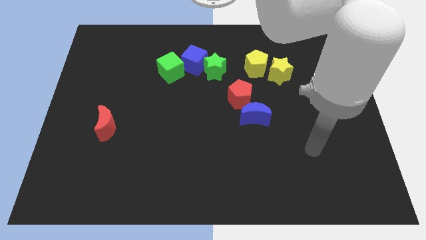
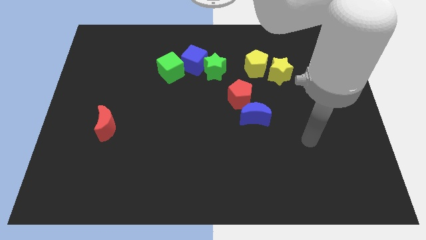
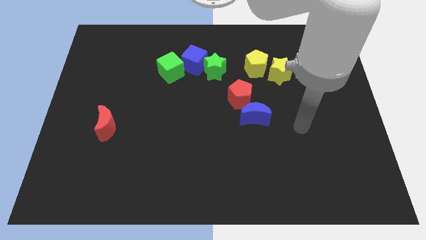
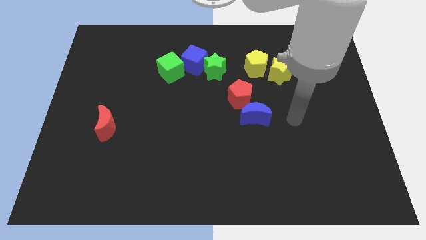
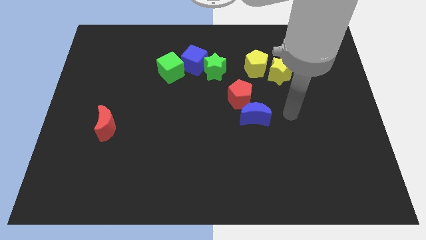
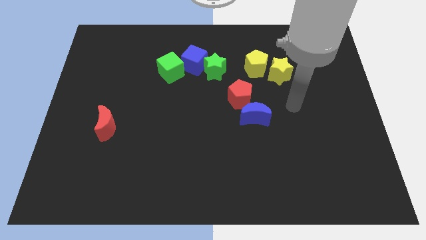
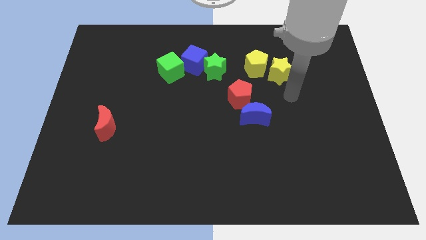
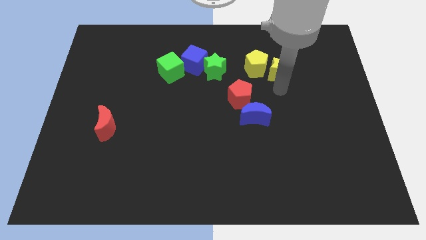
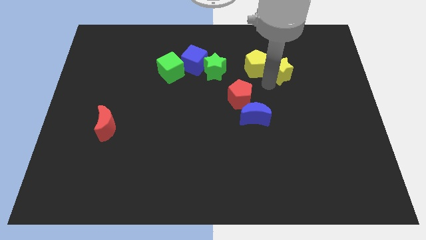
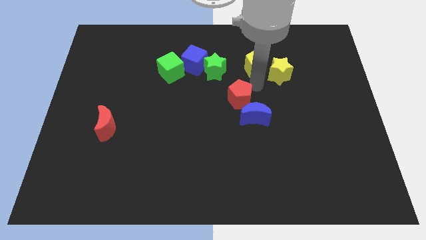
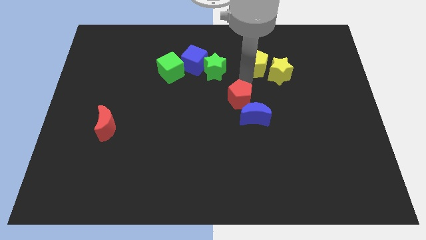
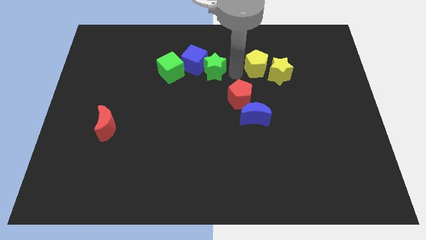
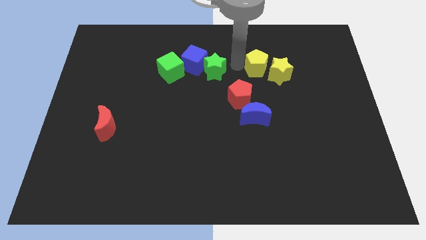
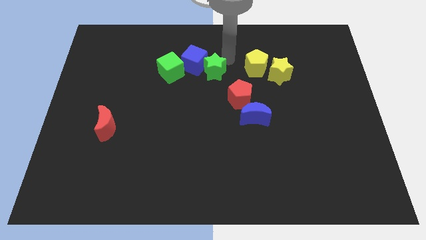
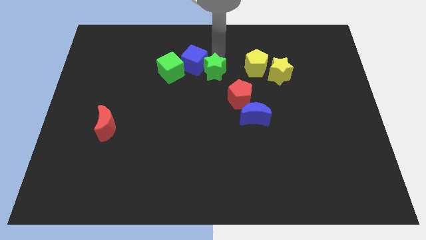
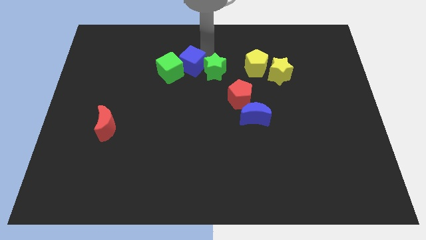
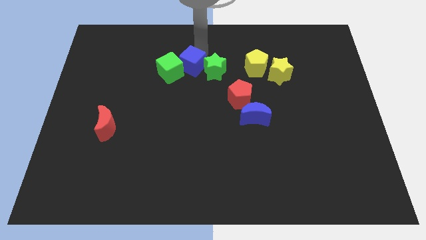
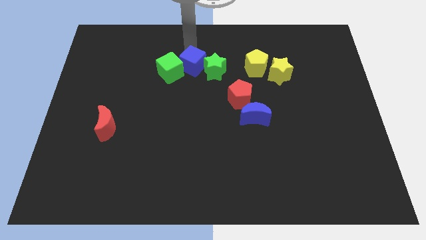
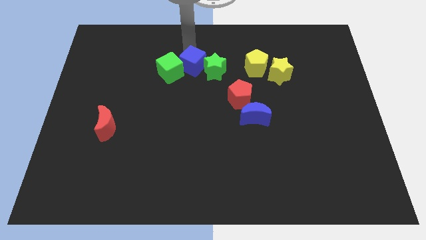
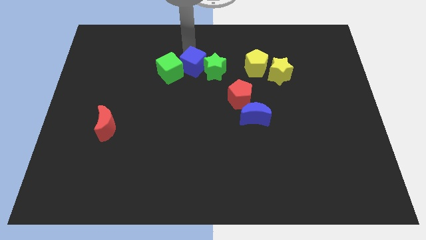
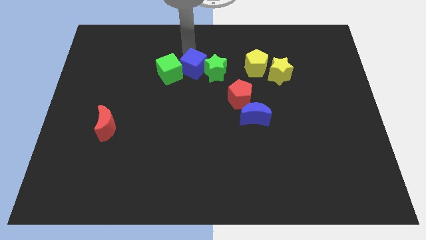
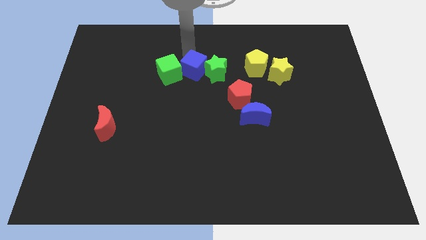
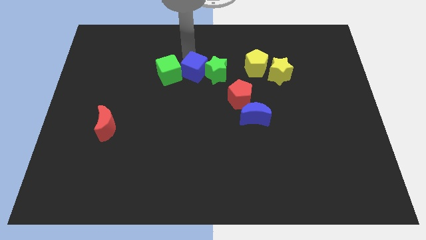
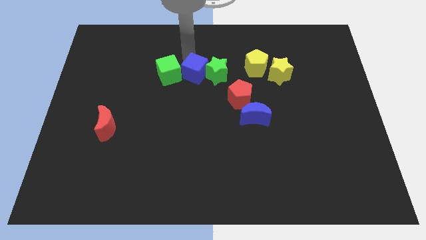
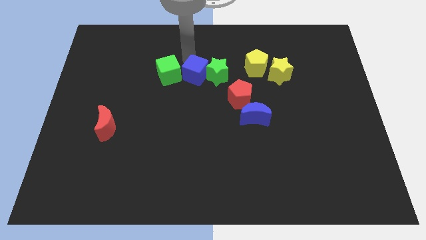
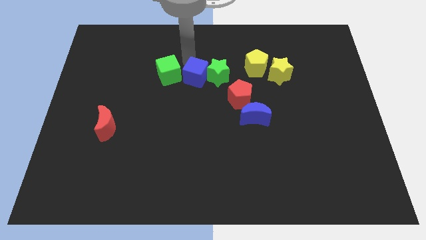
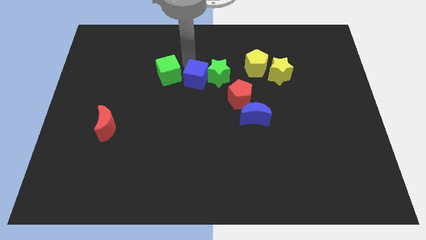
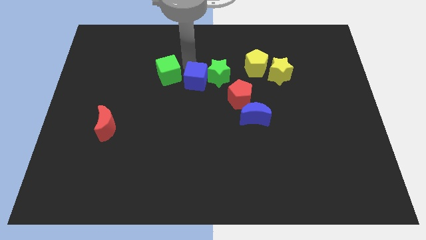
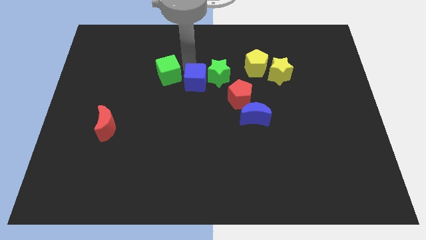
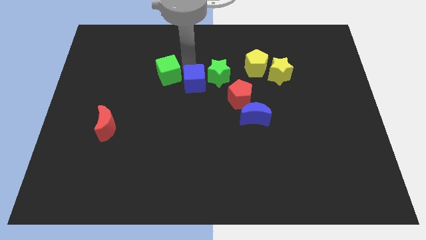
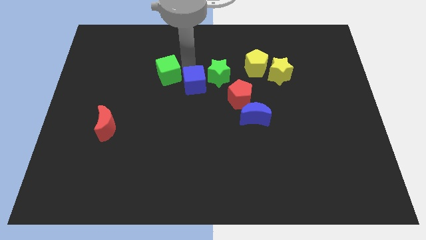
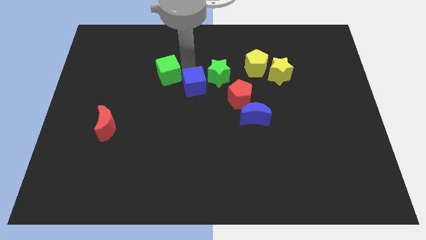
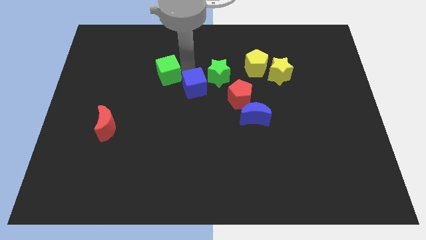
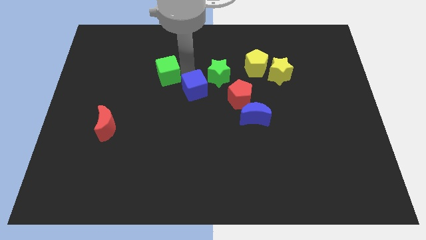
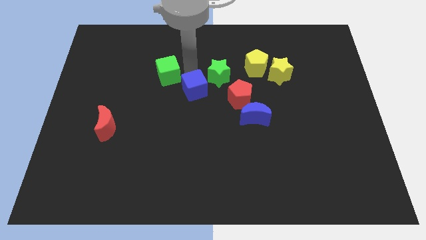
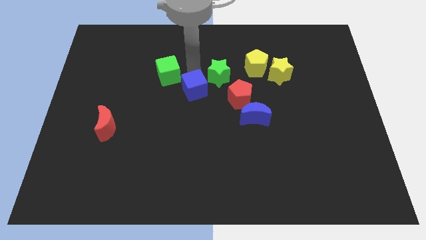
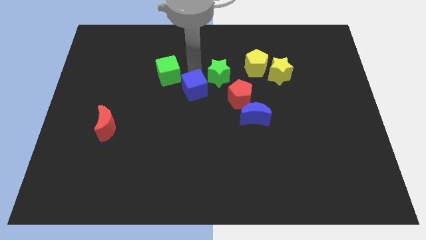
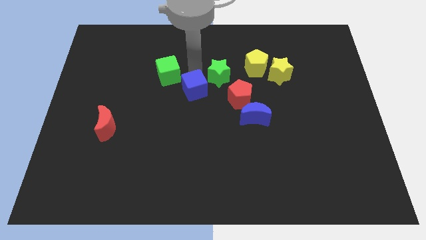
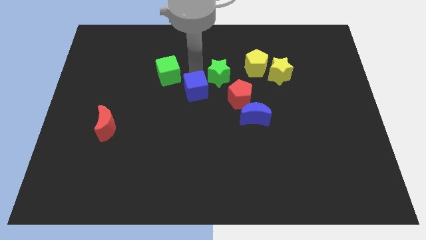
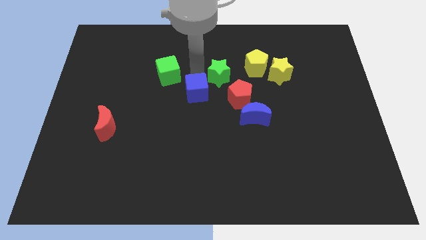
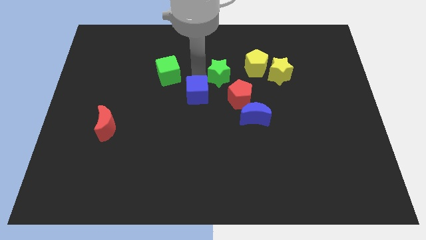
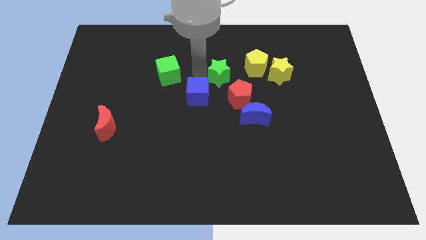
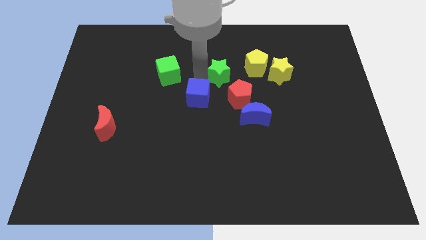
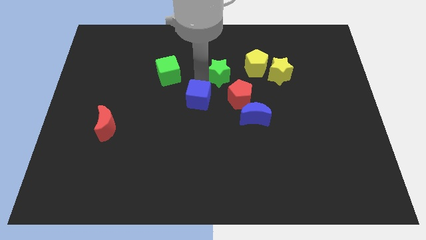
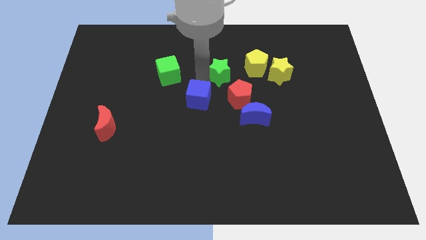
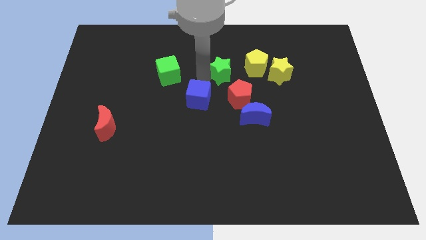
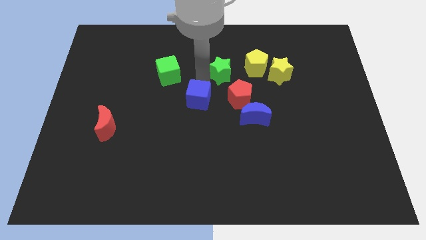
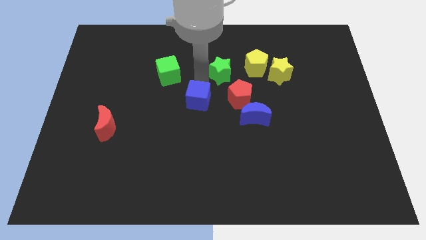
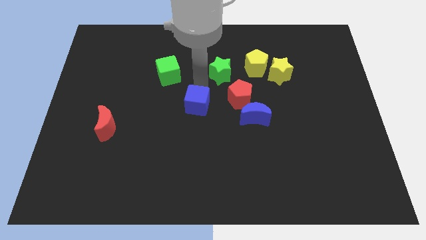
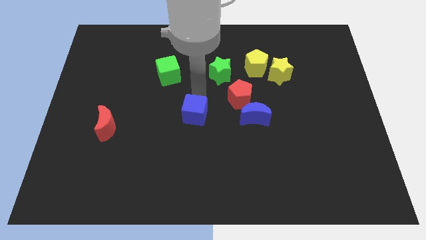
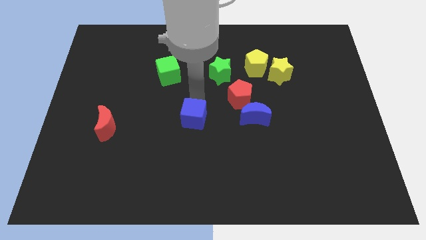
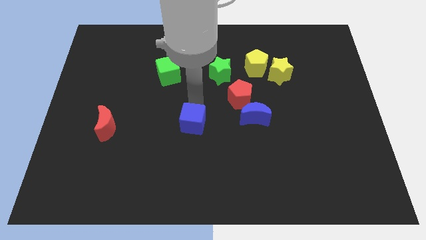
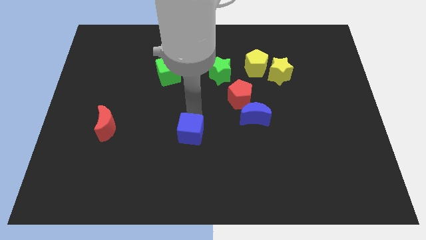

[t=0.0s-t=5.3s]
push the blue cube downwards

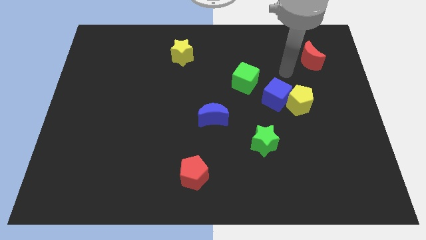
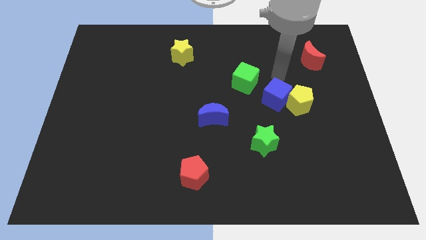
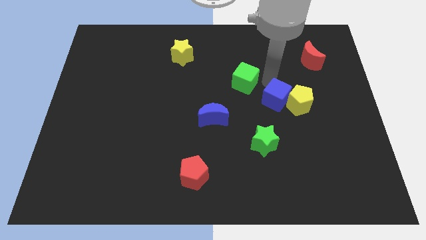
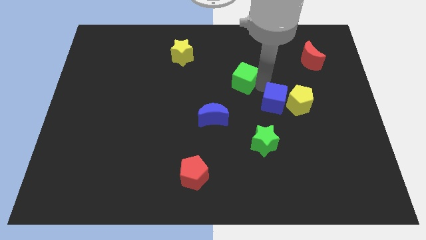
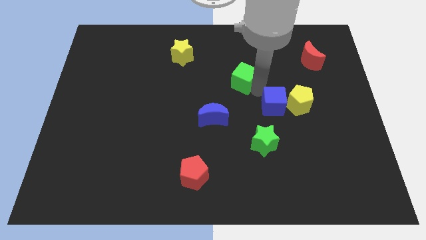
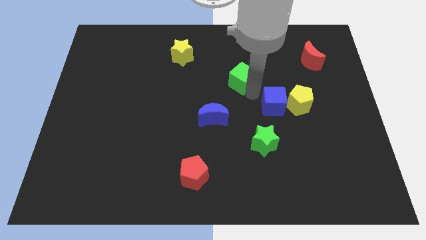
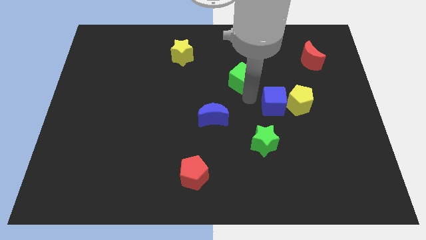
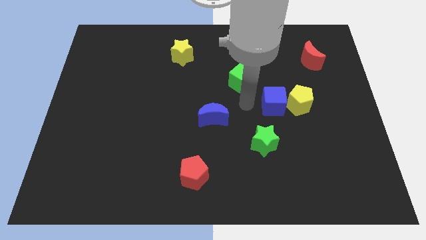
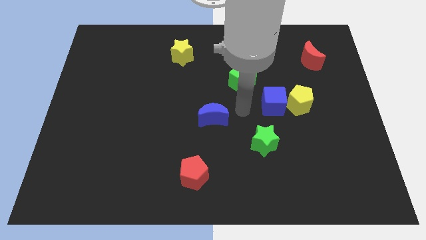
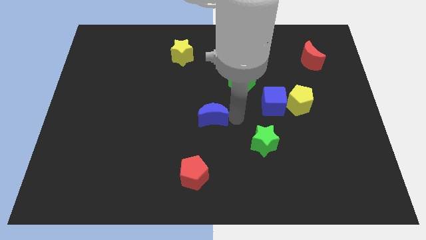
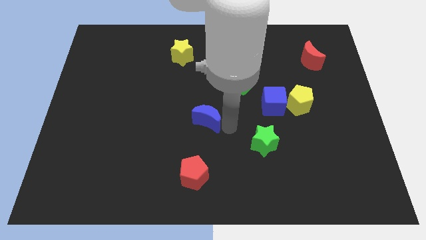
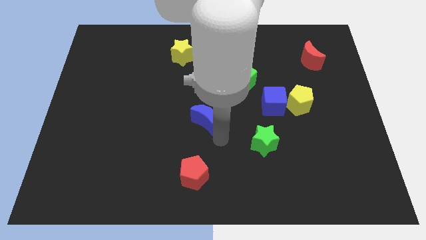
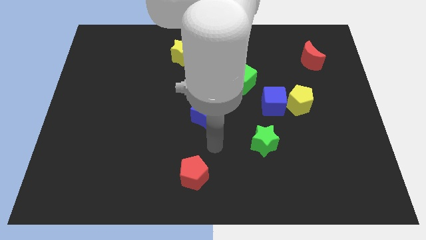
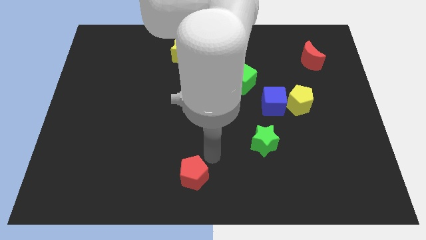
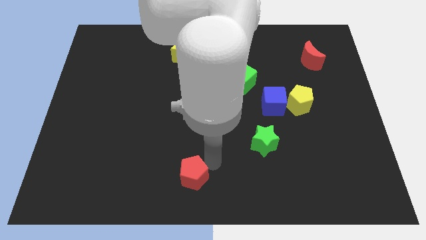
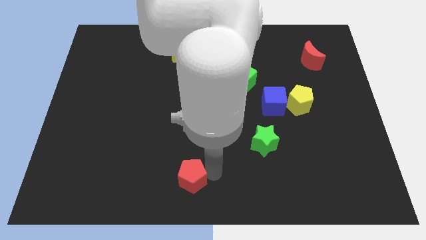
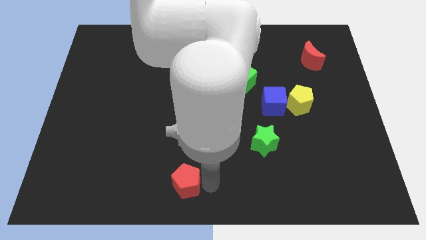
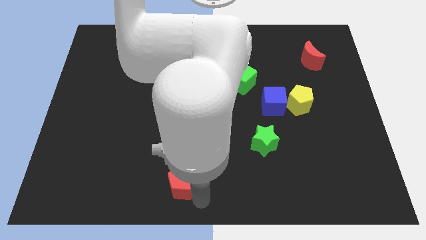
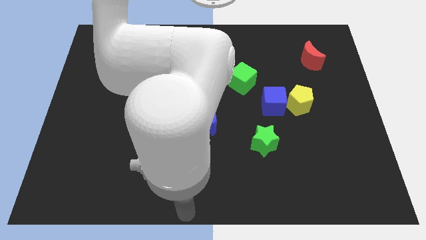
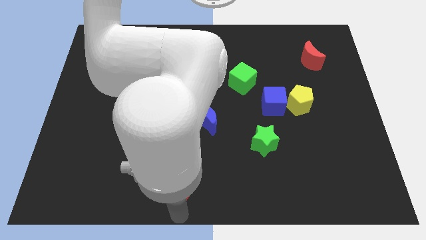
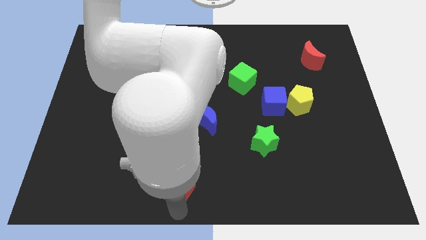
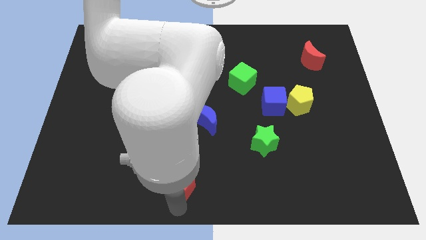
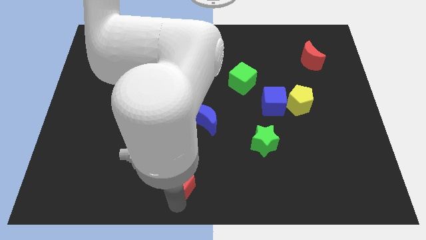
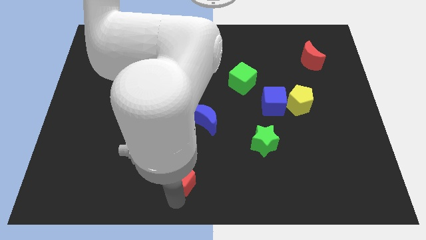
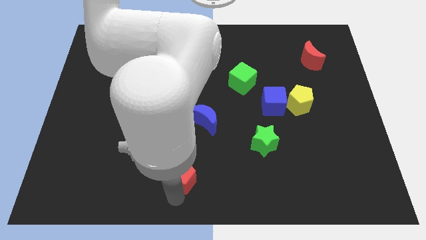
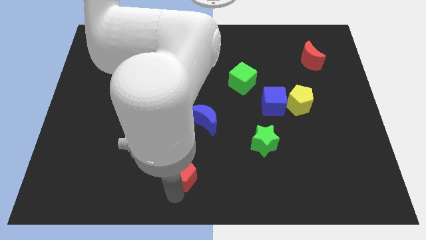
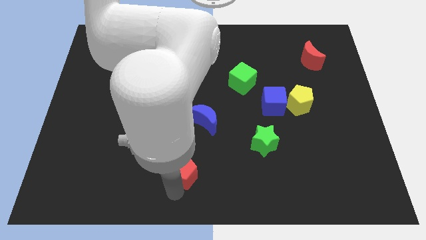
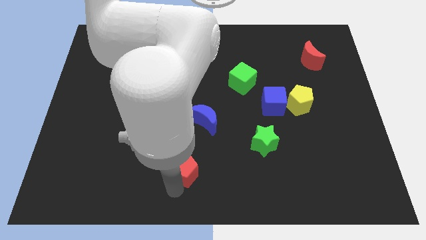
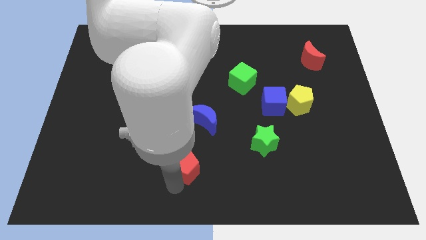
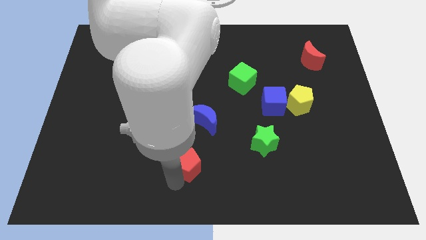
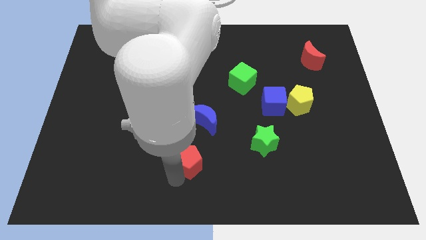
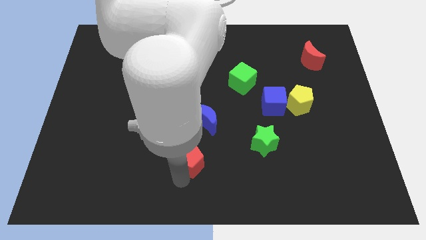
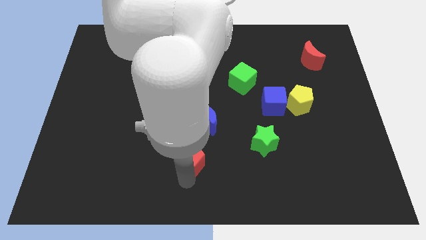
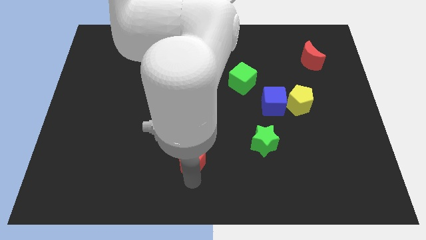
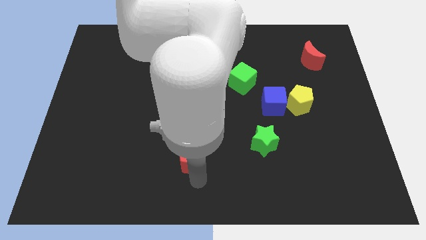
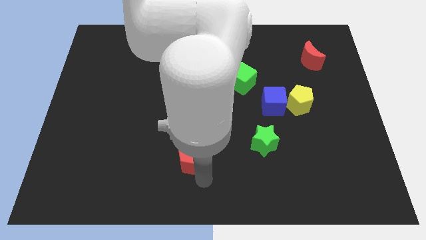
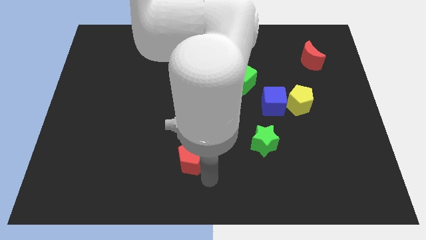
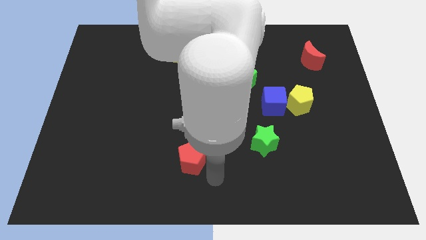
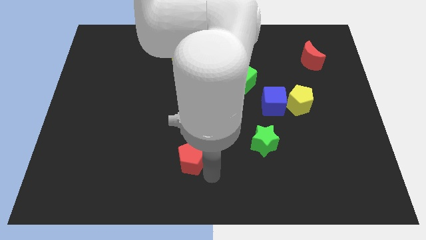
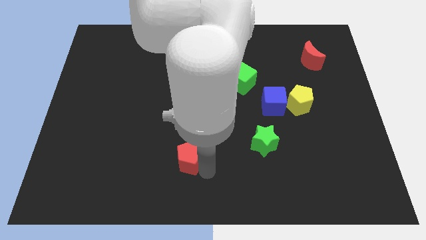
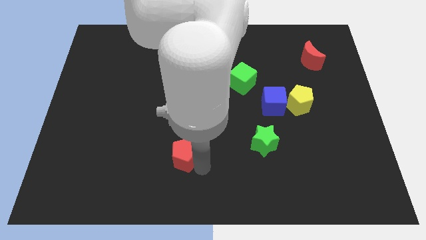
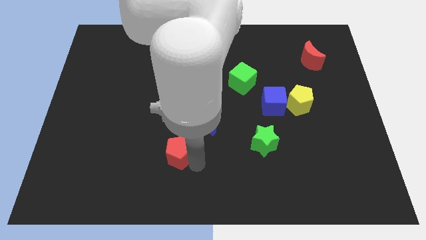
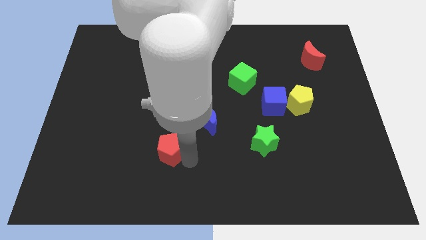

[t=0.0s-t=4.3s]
slide the red pentagon slightly upwards and to the left diagonally
